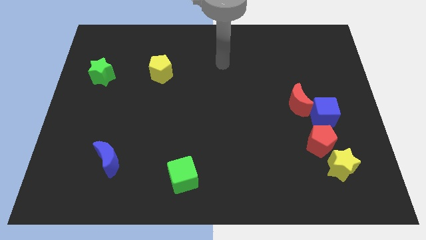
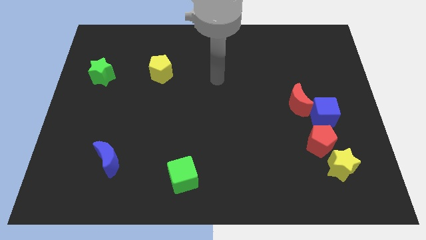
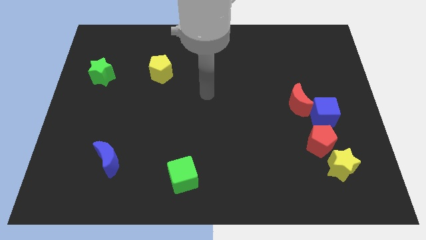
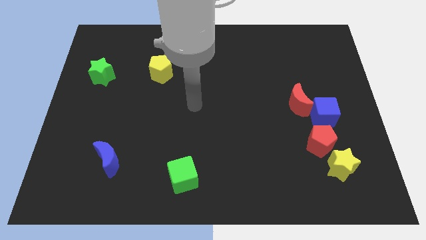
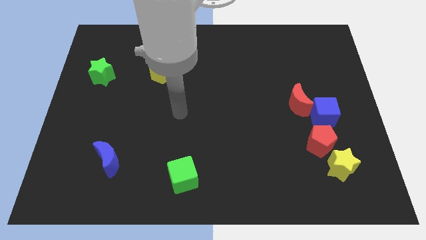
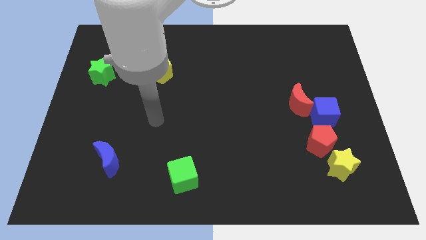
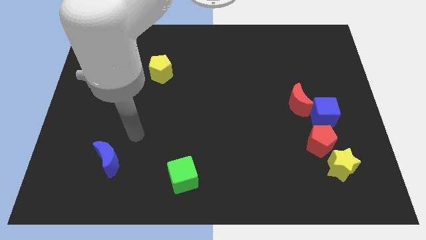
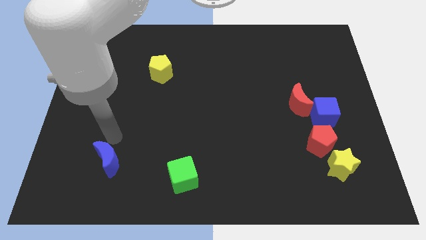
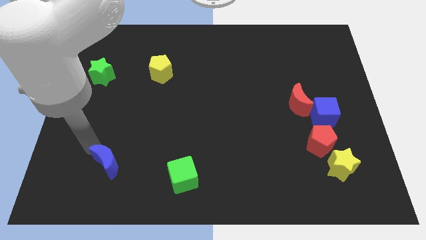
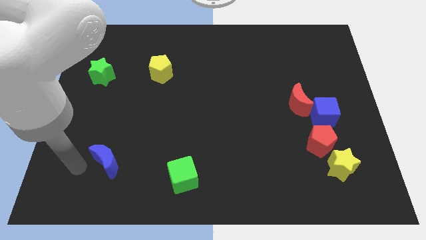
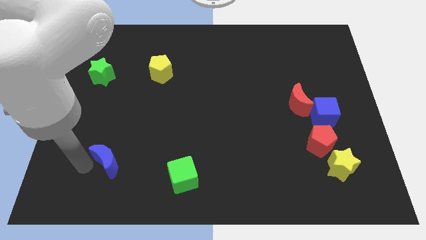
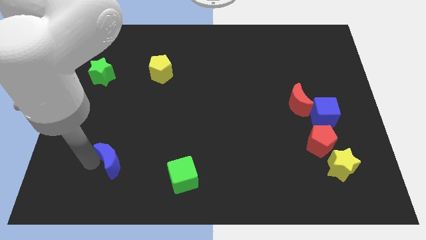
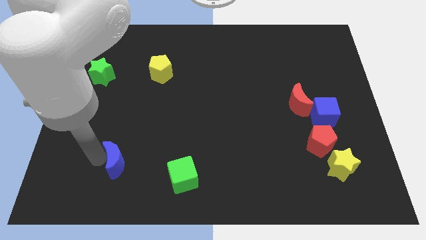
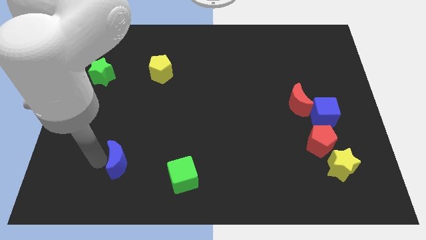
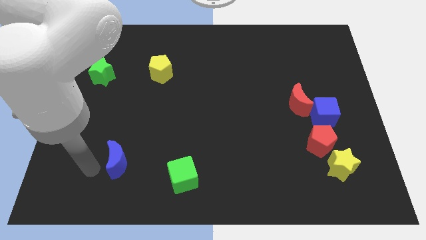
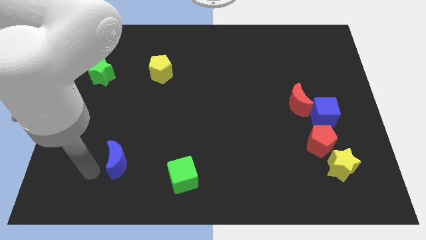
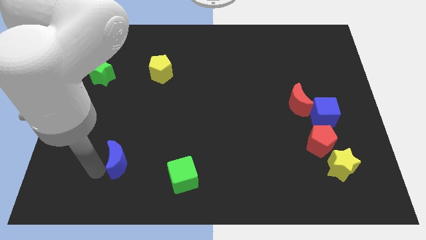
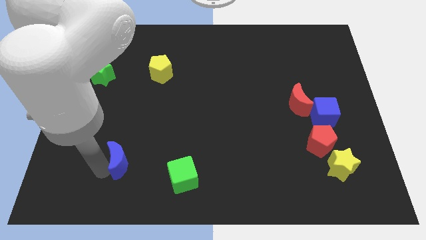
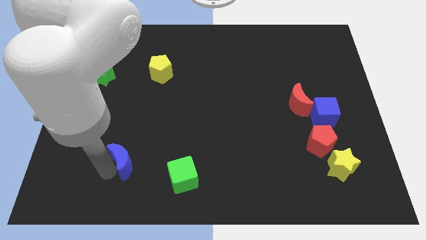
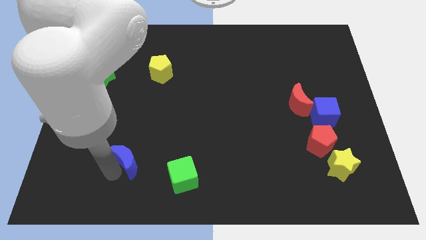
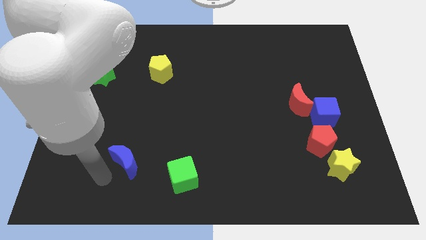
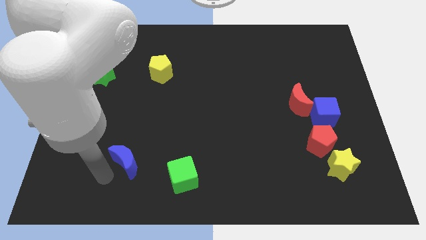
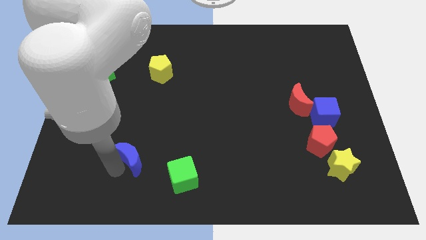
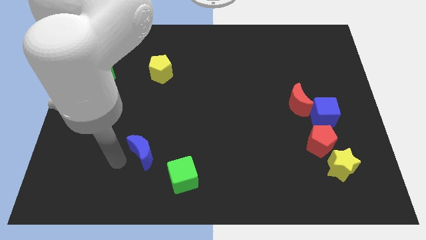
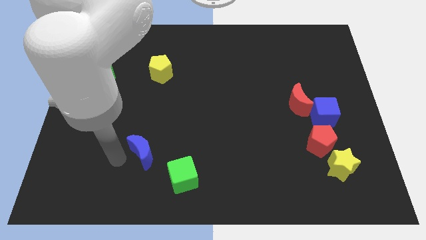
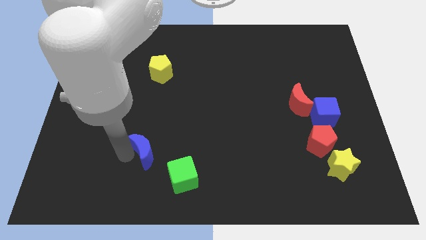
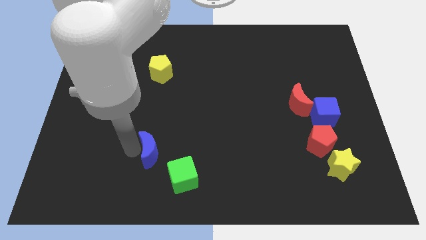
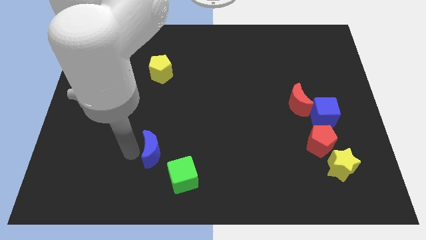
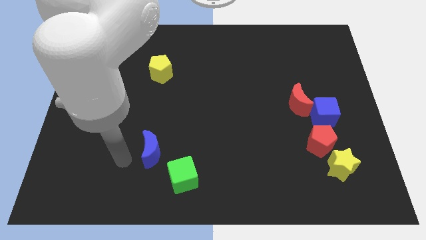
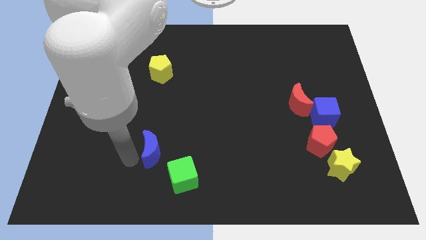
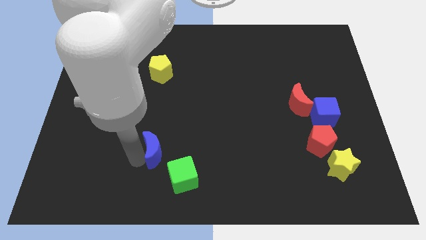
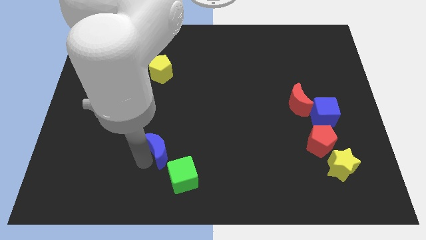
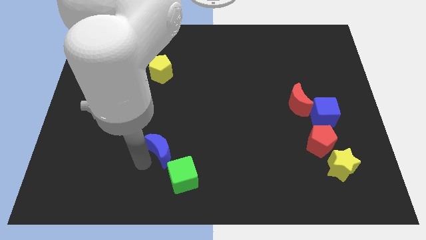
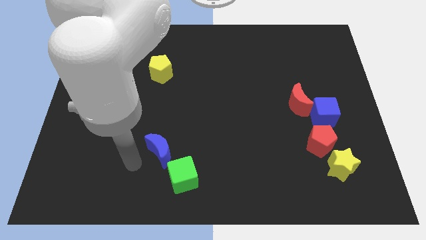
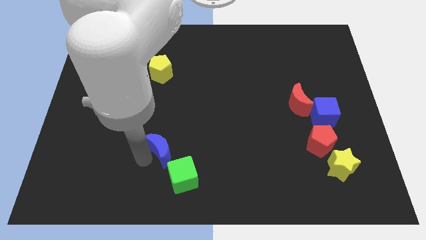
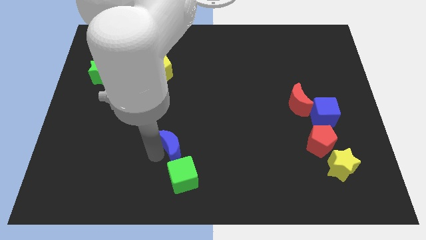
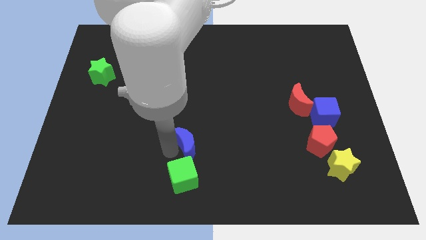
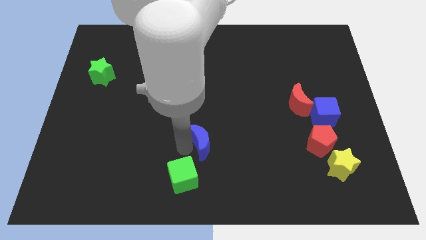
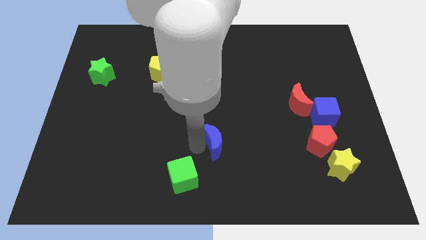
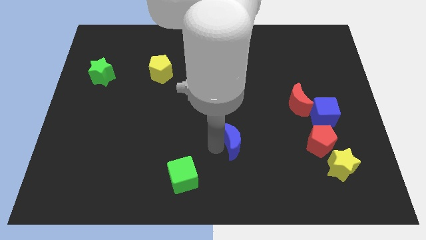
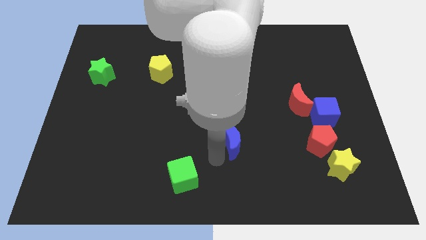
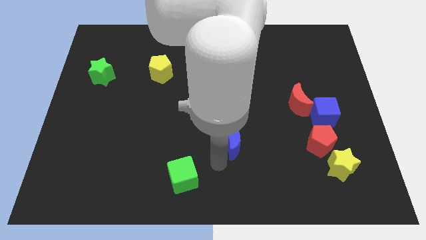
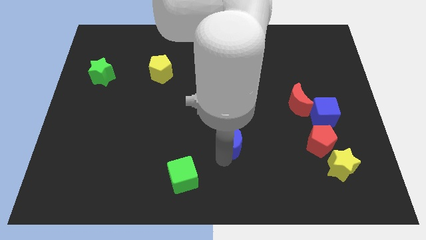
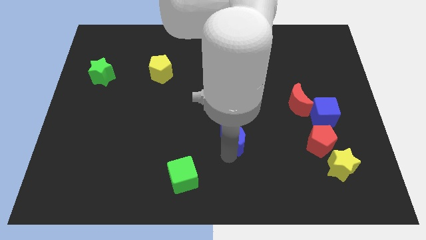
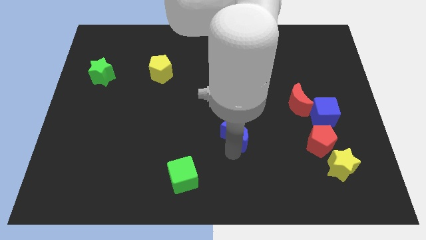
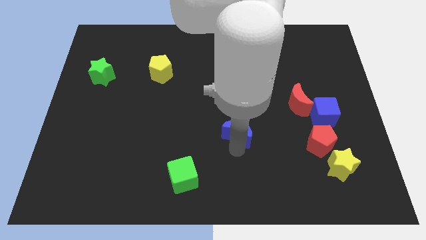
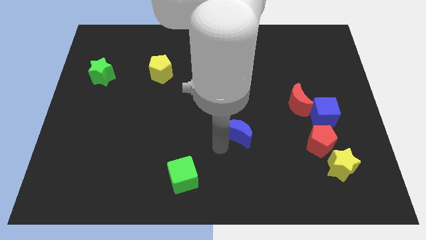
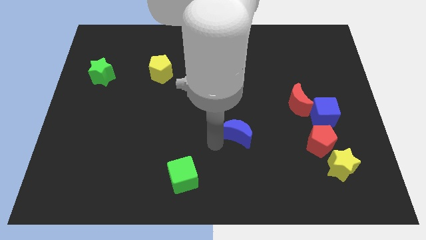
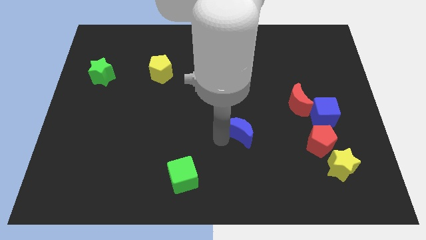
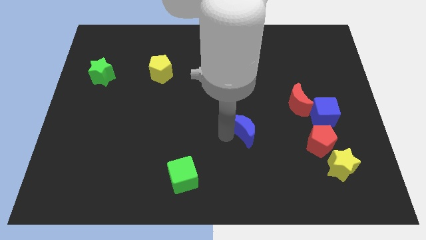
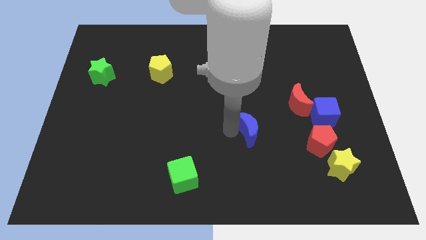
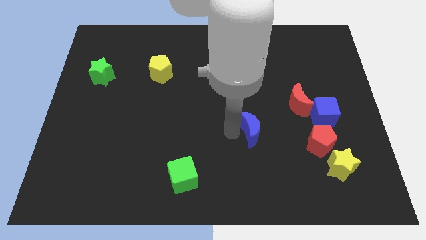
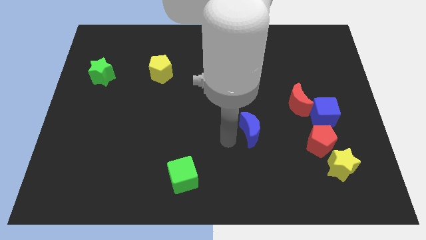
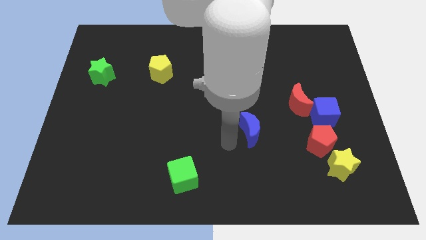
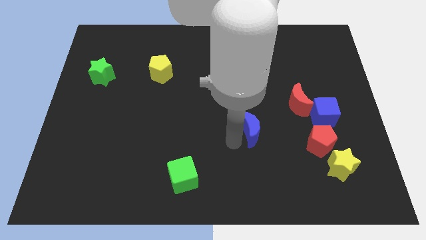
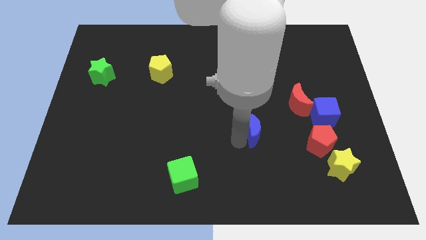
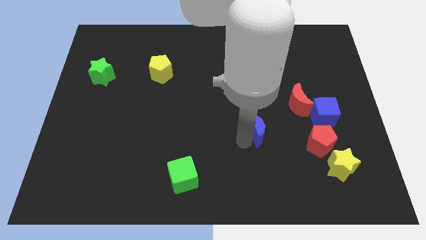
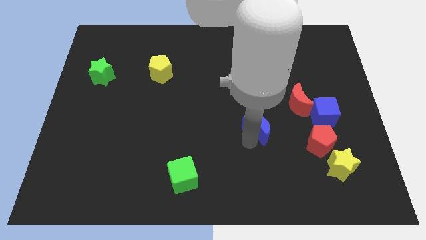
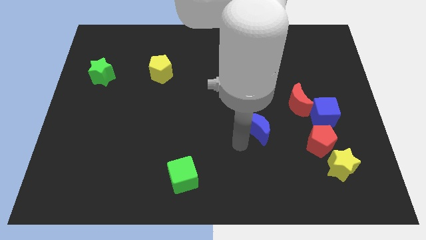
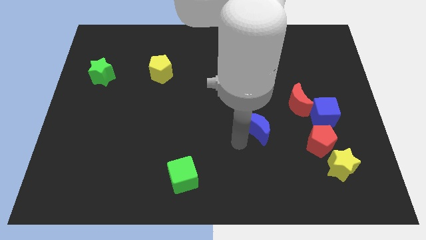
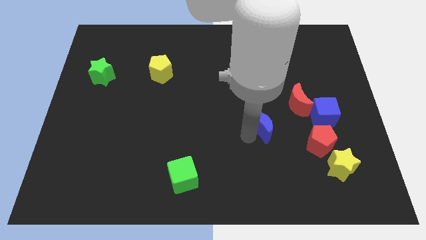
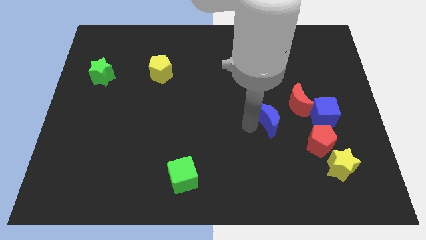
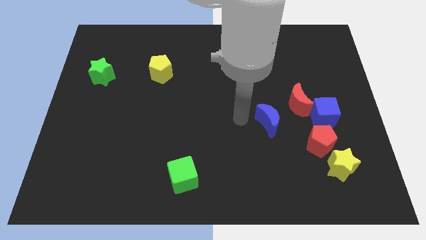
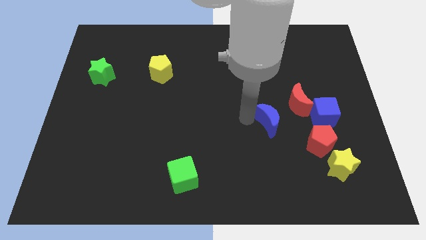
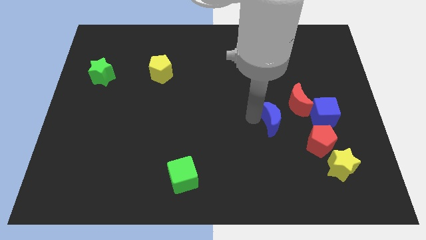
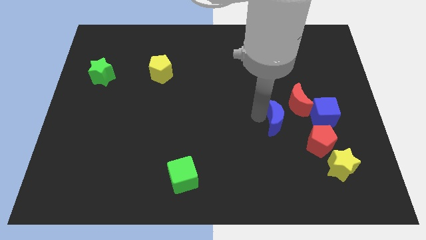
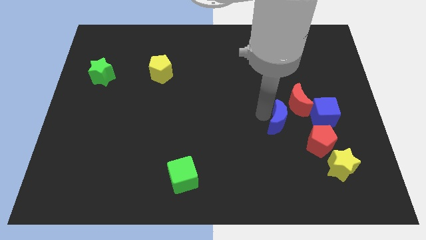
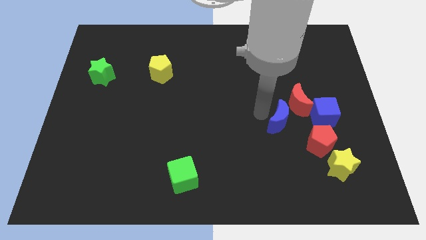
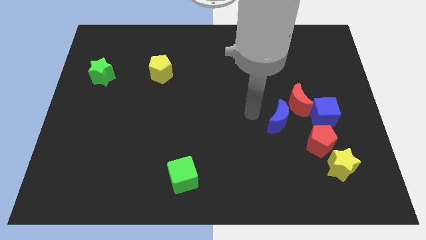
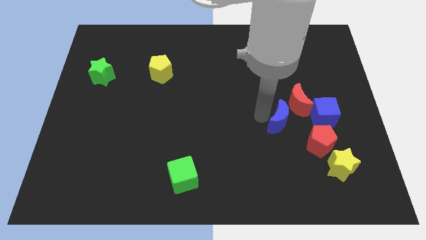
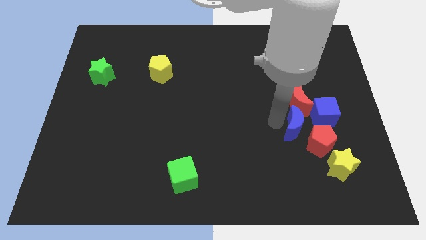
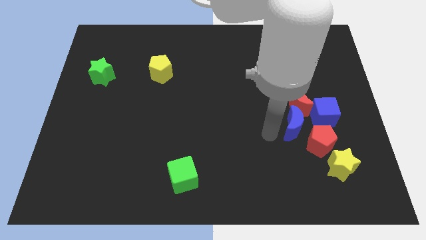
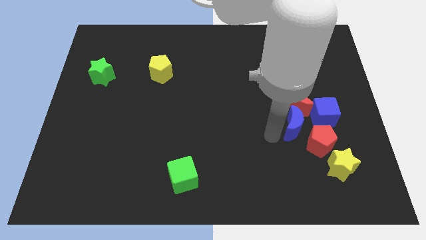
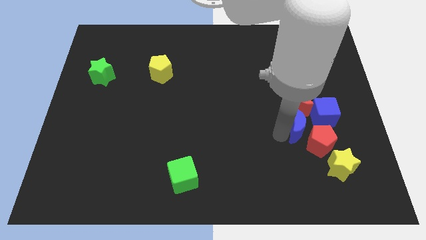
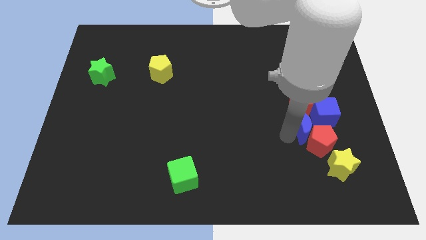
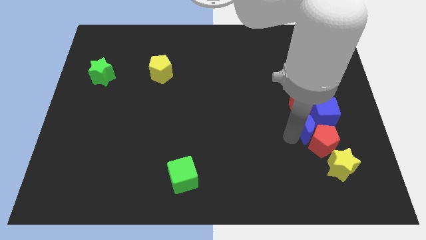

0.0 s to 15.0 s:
push the blue moon next to the blue cube
